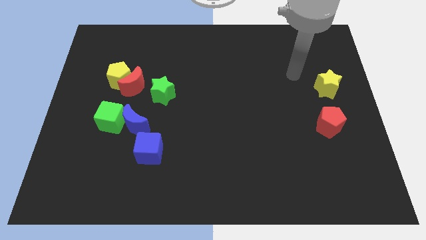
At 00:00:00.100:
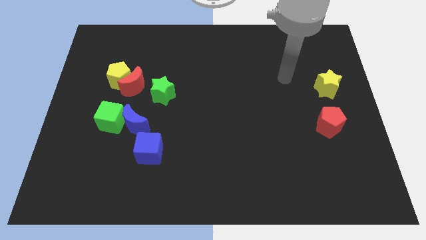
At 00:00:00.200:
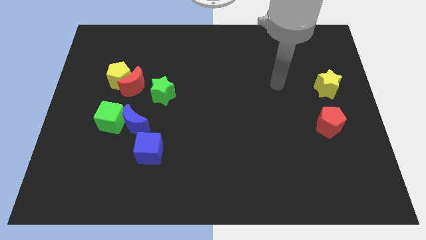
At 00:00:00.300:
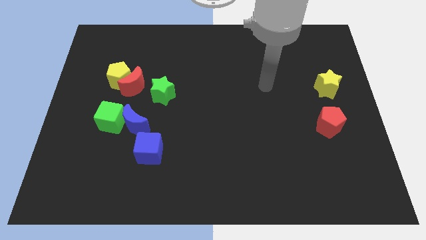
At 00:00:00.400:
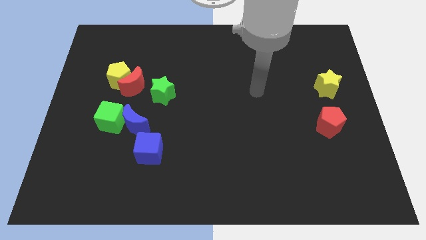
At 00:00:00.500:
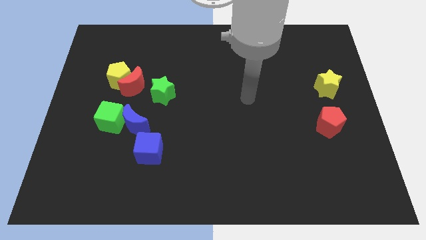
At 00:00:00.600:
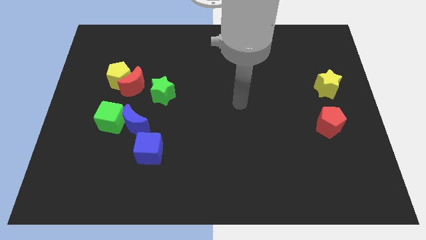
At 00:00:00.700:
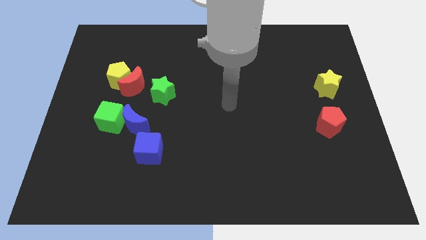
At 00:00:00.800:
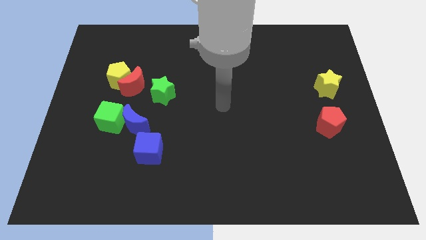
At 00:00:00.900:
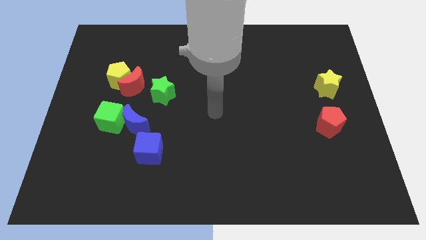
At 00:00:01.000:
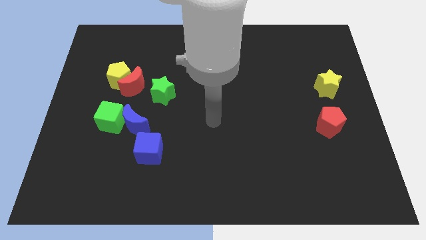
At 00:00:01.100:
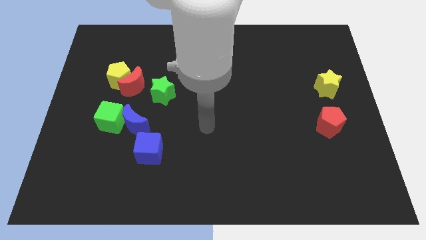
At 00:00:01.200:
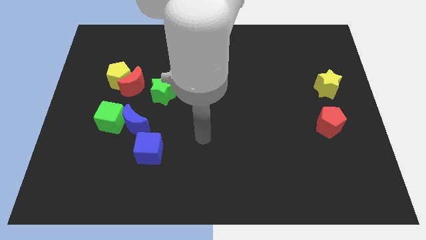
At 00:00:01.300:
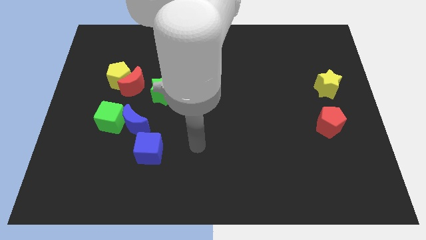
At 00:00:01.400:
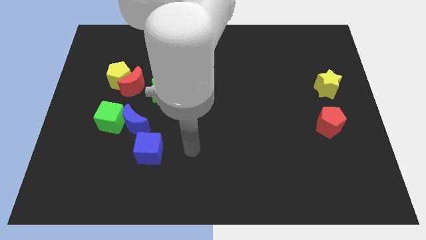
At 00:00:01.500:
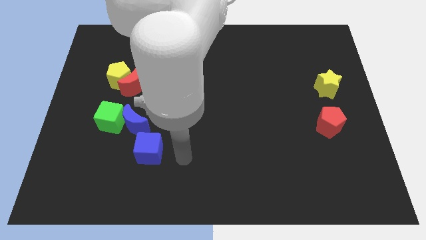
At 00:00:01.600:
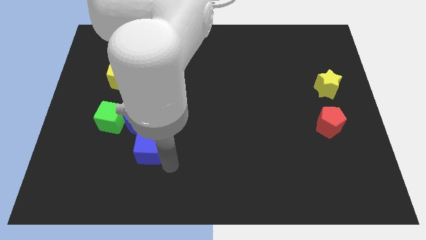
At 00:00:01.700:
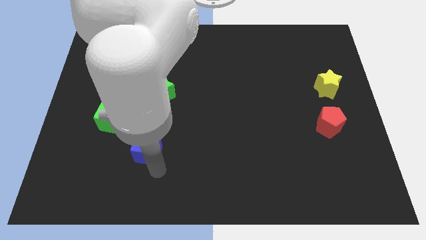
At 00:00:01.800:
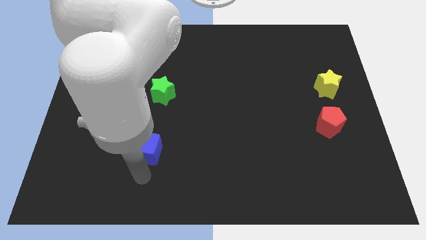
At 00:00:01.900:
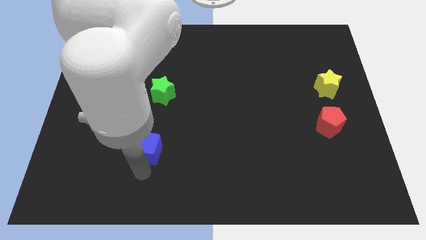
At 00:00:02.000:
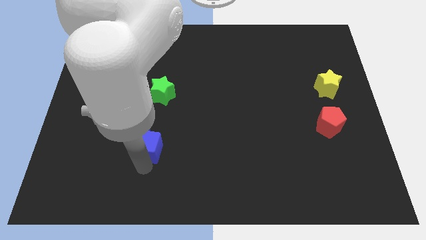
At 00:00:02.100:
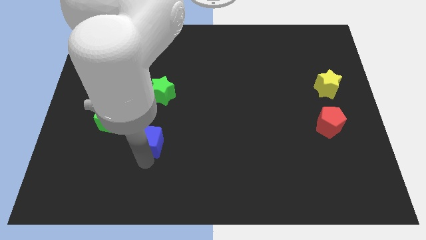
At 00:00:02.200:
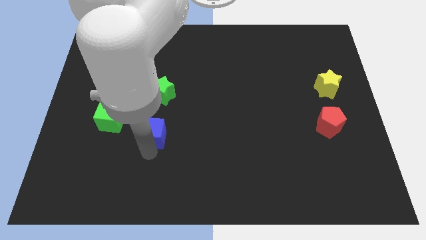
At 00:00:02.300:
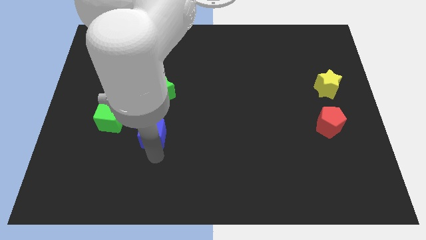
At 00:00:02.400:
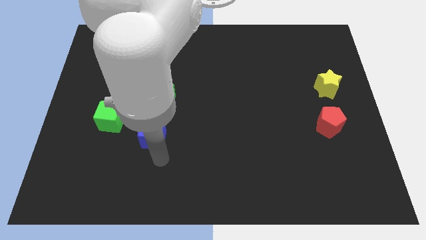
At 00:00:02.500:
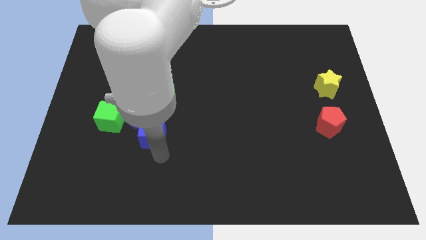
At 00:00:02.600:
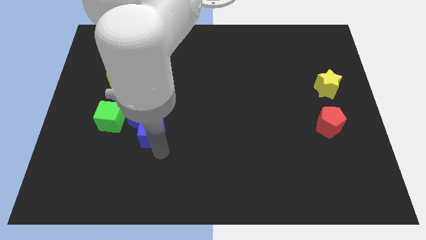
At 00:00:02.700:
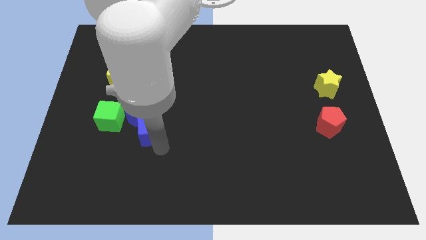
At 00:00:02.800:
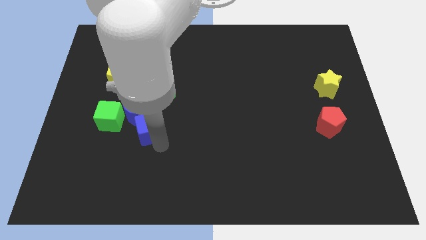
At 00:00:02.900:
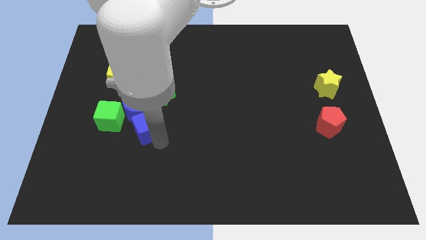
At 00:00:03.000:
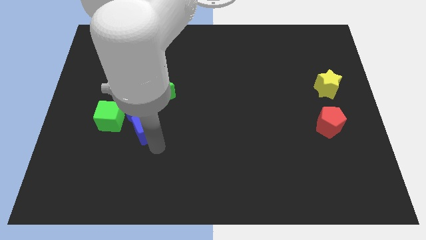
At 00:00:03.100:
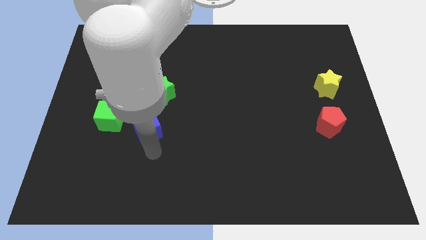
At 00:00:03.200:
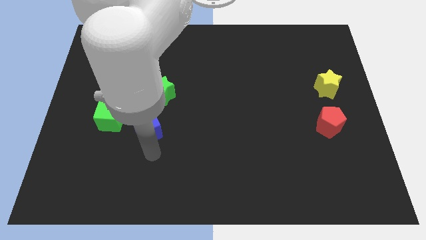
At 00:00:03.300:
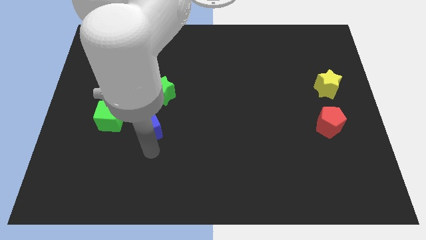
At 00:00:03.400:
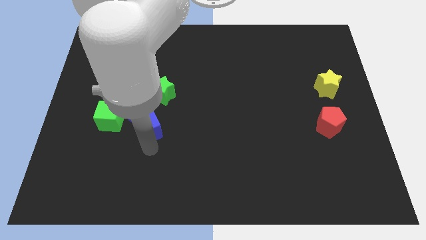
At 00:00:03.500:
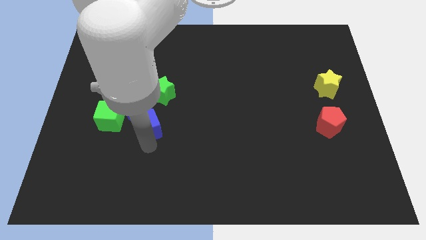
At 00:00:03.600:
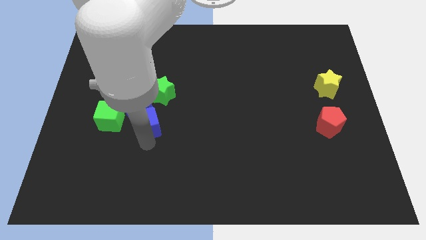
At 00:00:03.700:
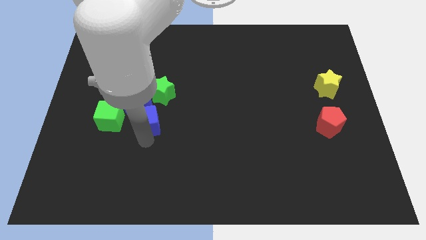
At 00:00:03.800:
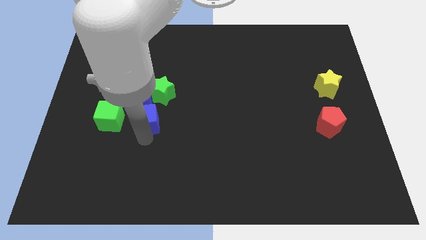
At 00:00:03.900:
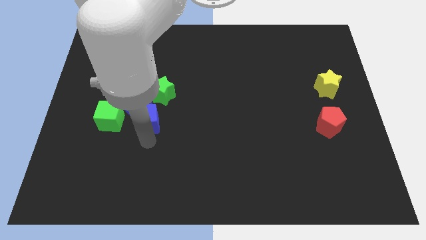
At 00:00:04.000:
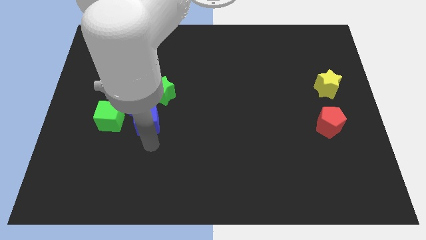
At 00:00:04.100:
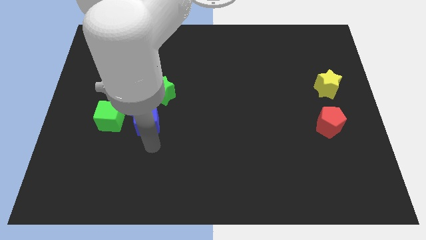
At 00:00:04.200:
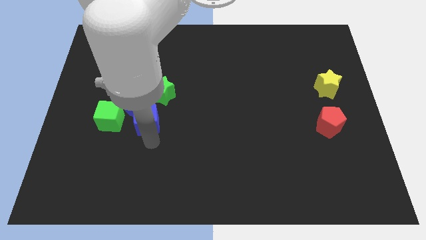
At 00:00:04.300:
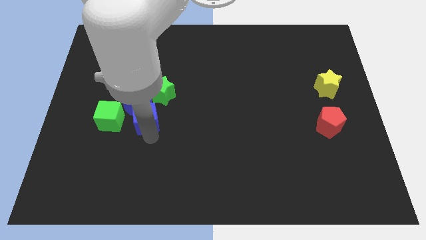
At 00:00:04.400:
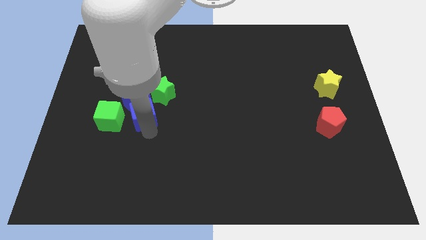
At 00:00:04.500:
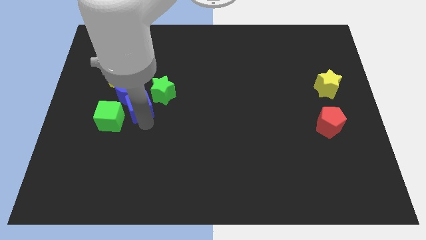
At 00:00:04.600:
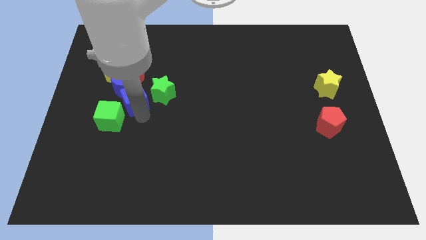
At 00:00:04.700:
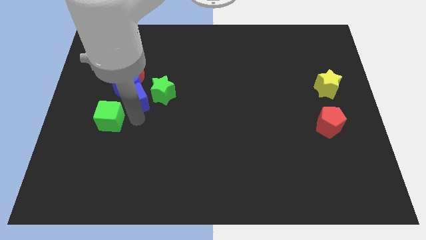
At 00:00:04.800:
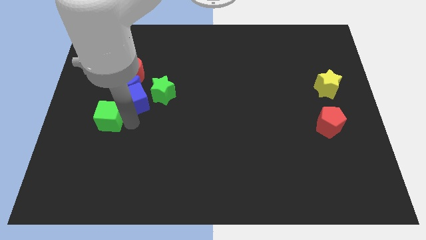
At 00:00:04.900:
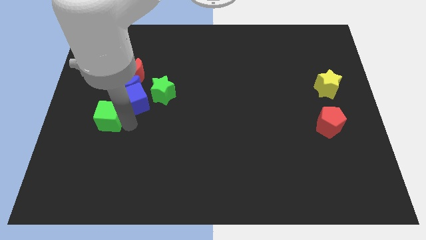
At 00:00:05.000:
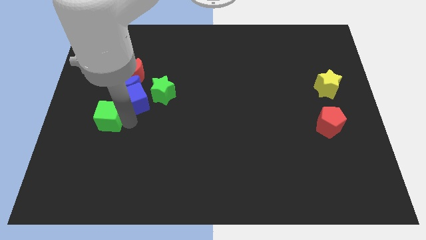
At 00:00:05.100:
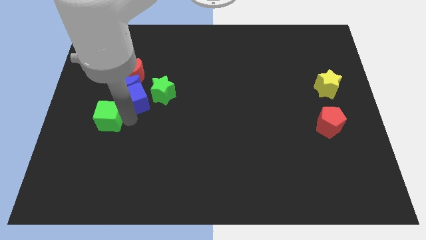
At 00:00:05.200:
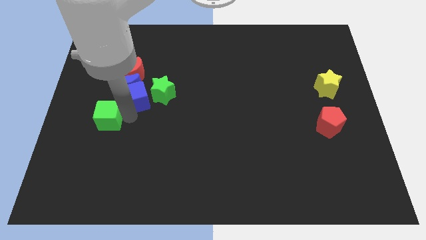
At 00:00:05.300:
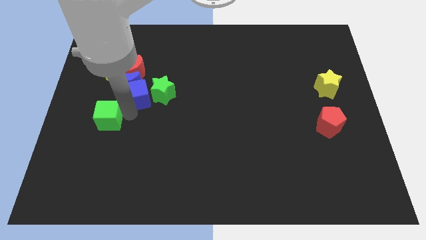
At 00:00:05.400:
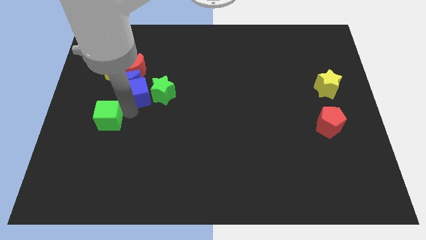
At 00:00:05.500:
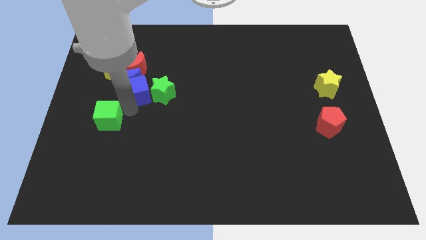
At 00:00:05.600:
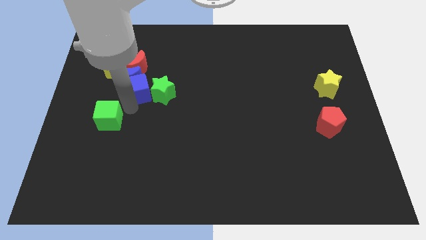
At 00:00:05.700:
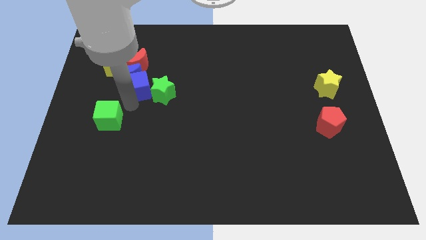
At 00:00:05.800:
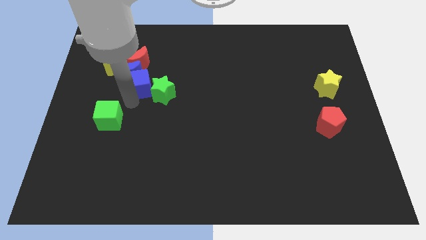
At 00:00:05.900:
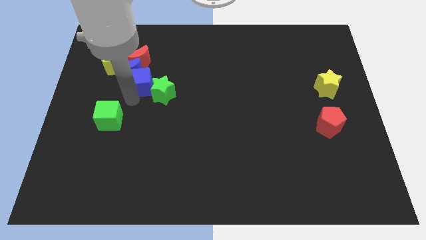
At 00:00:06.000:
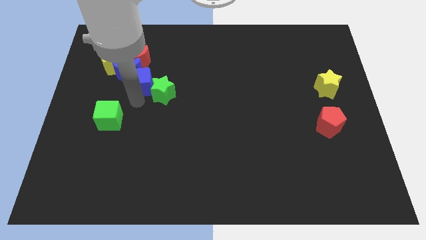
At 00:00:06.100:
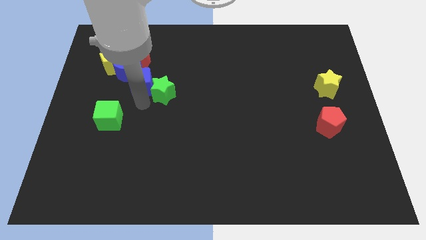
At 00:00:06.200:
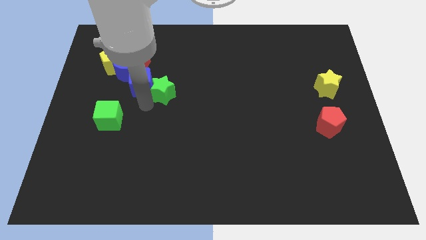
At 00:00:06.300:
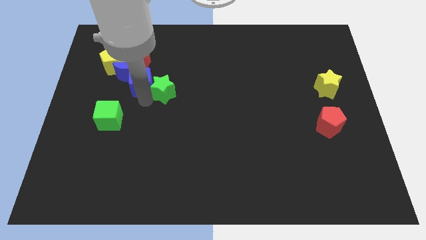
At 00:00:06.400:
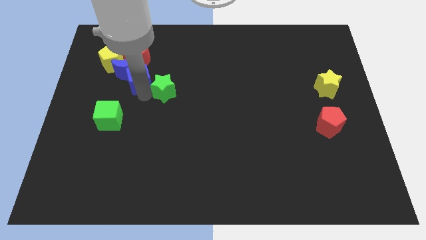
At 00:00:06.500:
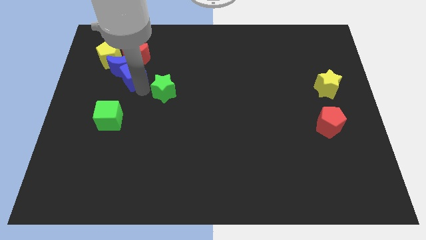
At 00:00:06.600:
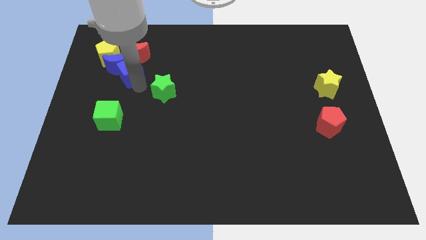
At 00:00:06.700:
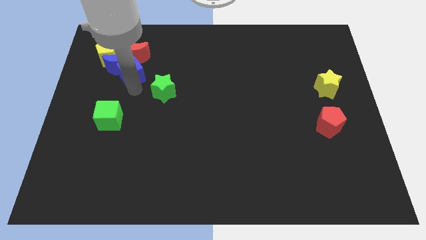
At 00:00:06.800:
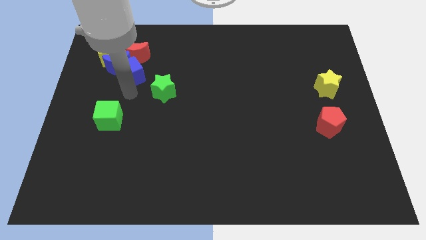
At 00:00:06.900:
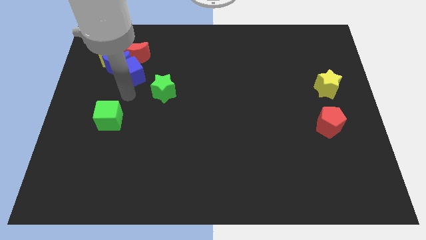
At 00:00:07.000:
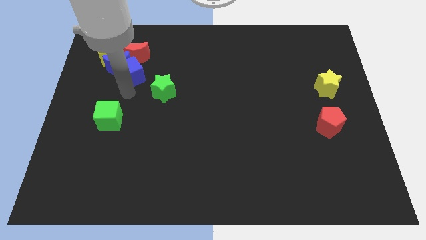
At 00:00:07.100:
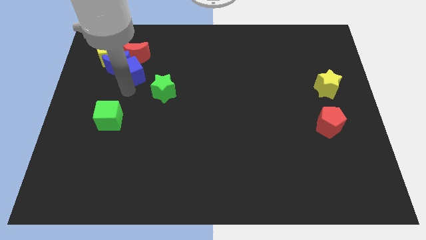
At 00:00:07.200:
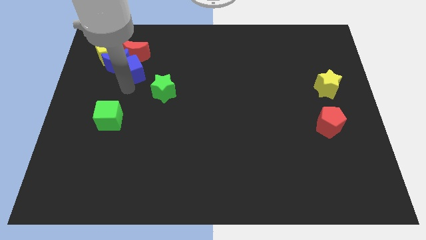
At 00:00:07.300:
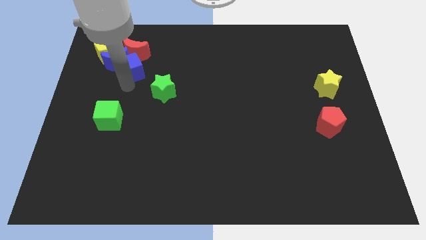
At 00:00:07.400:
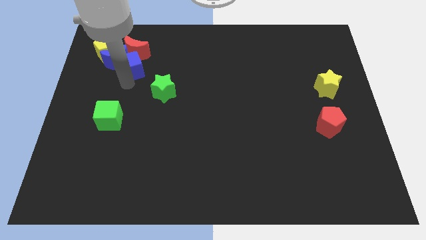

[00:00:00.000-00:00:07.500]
move the blue cube next to the red moon
